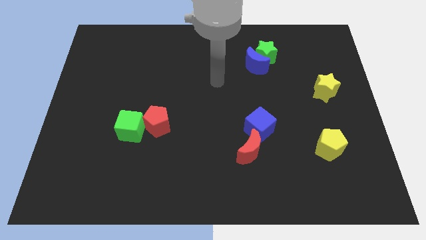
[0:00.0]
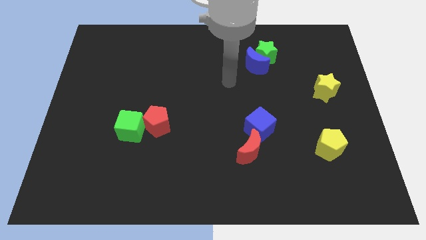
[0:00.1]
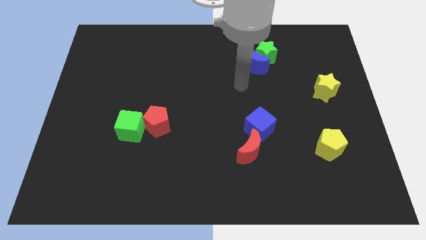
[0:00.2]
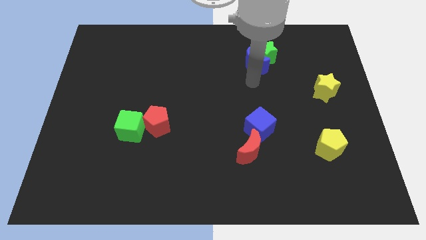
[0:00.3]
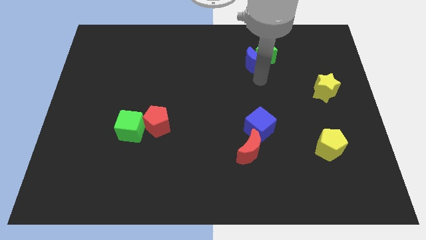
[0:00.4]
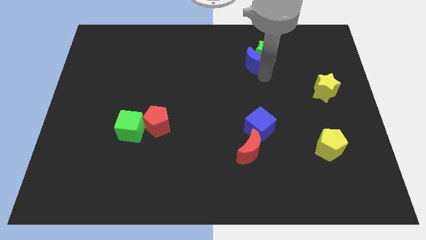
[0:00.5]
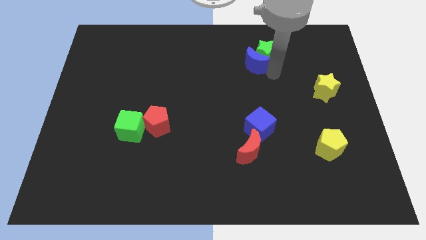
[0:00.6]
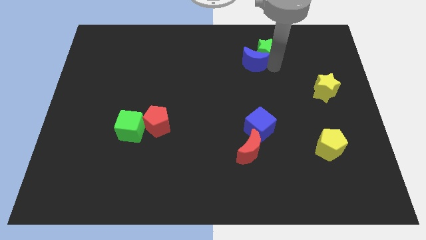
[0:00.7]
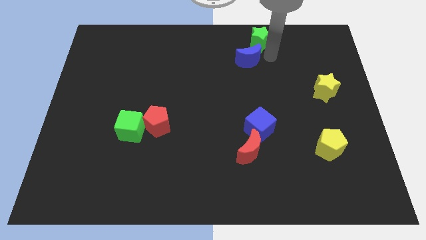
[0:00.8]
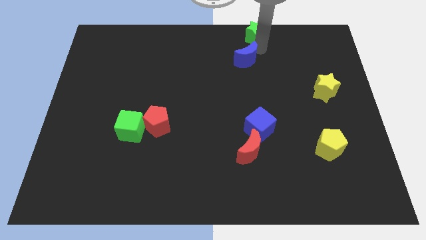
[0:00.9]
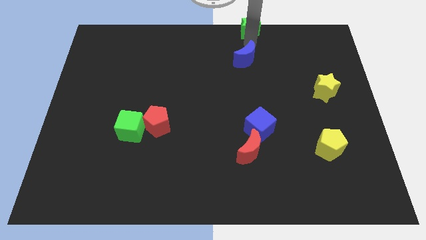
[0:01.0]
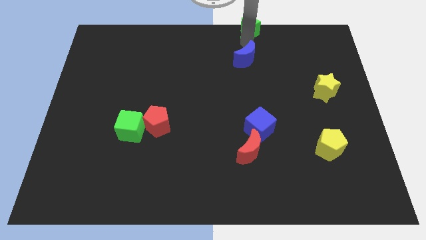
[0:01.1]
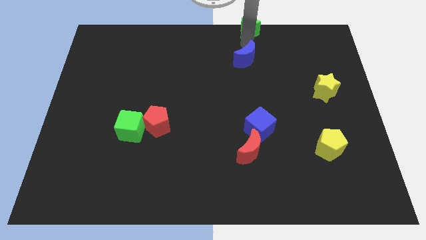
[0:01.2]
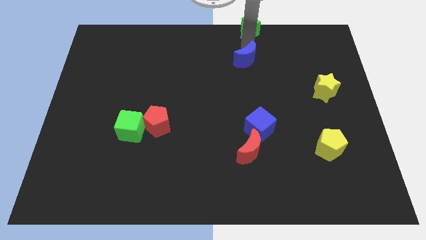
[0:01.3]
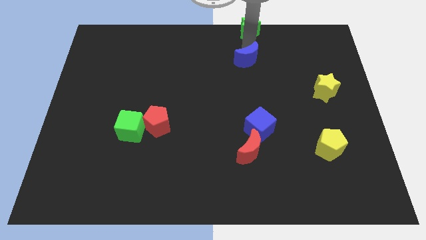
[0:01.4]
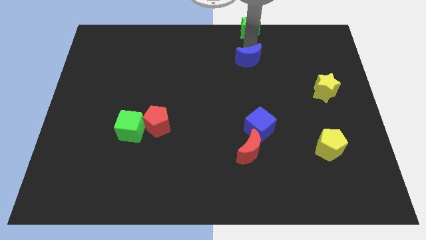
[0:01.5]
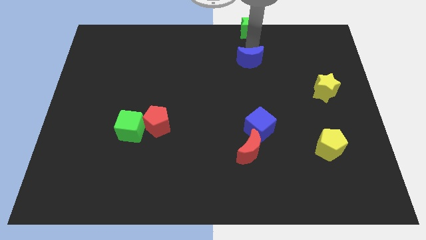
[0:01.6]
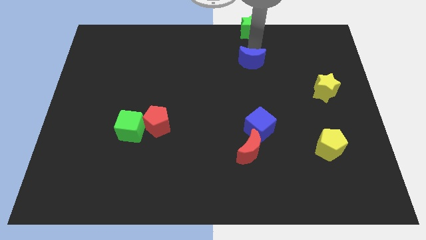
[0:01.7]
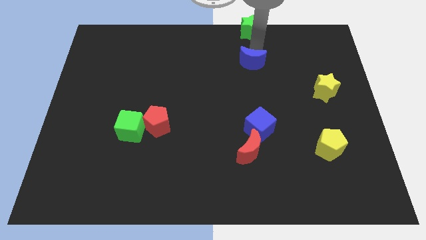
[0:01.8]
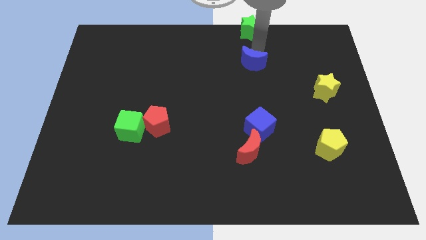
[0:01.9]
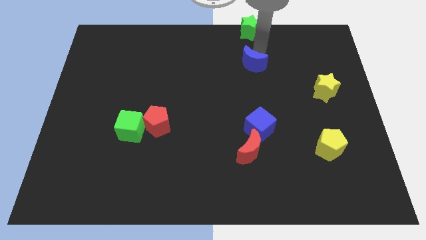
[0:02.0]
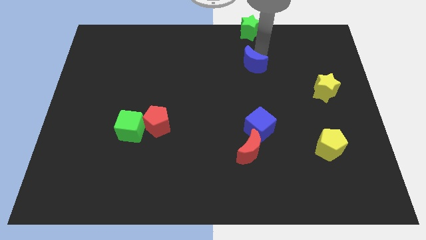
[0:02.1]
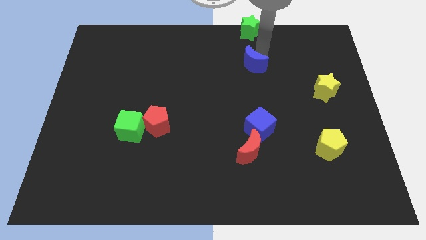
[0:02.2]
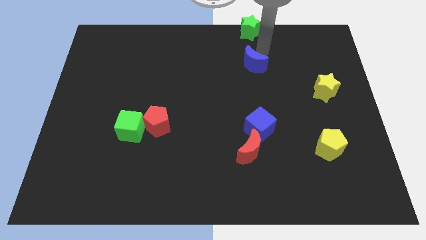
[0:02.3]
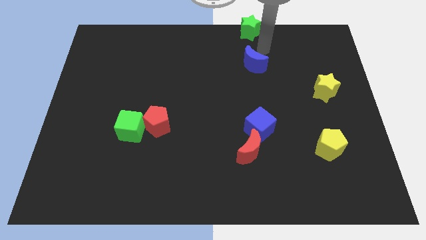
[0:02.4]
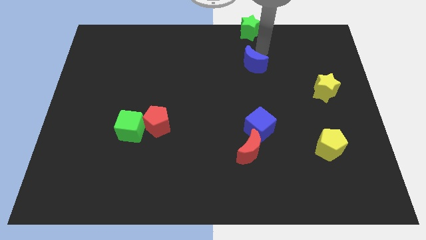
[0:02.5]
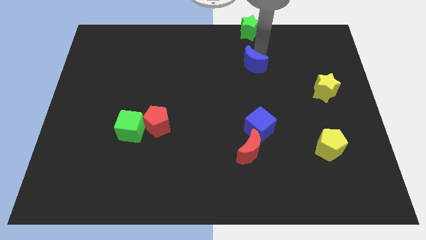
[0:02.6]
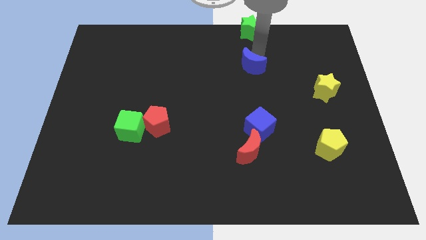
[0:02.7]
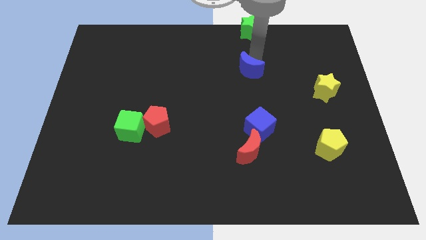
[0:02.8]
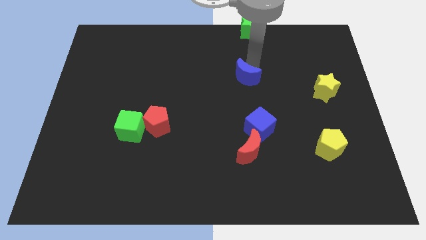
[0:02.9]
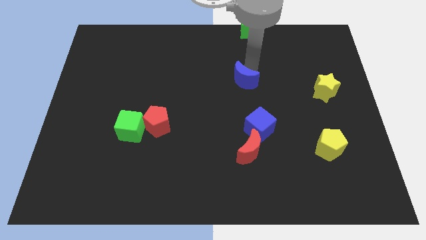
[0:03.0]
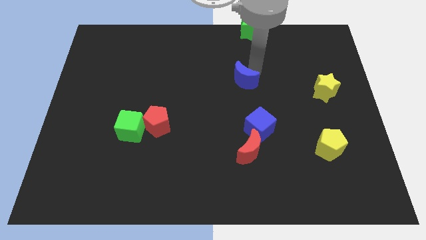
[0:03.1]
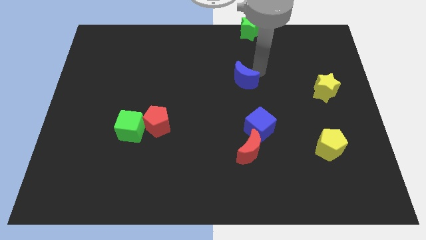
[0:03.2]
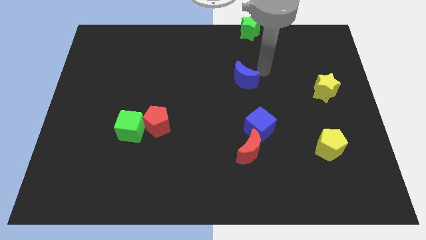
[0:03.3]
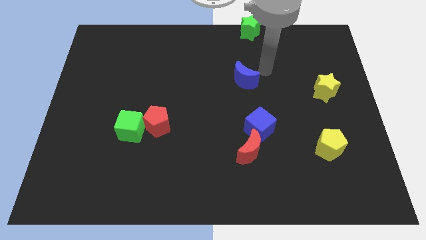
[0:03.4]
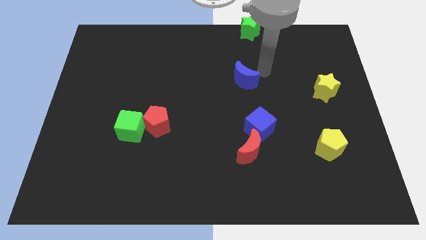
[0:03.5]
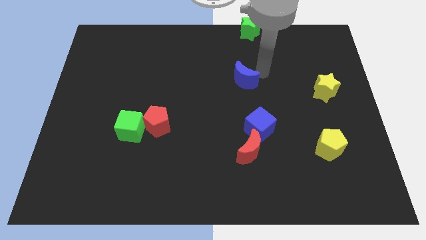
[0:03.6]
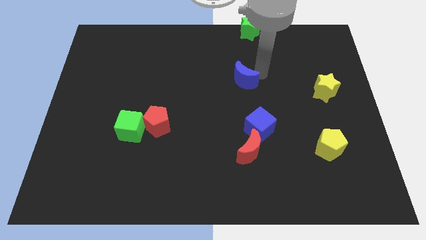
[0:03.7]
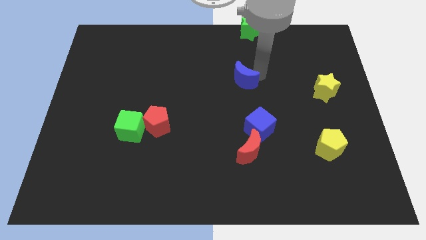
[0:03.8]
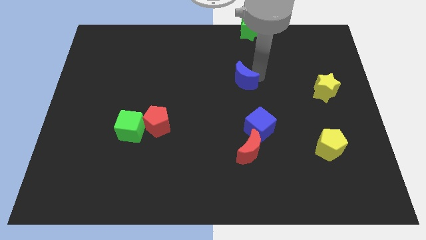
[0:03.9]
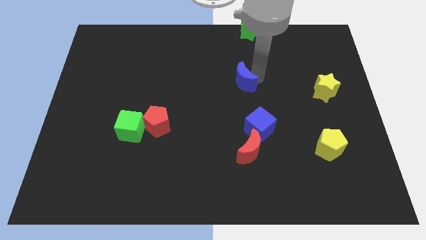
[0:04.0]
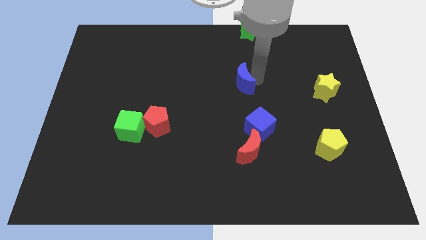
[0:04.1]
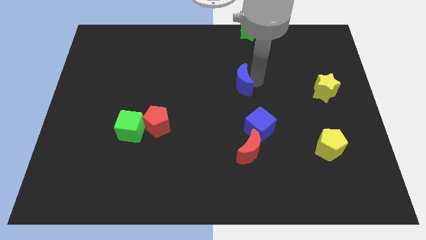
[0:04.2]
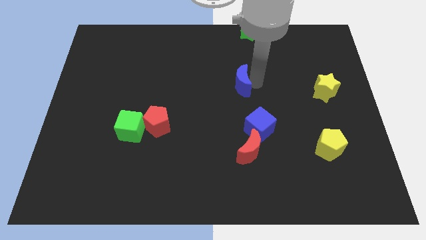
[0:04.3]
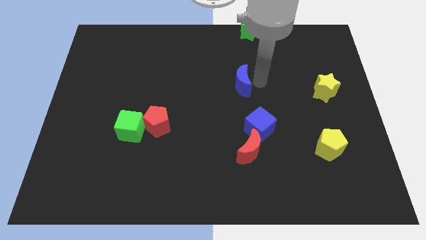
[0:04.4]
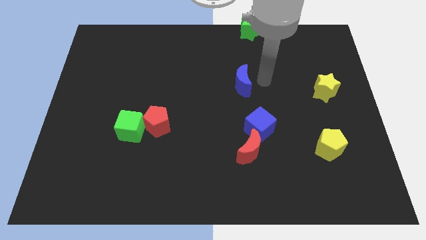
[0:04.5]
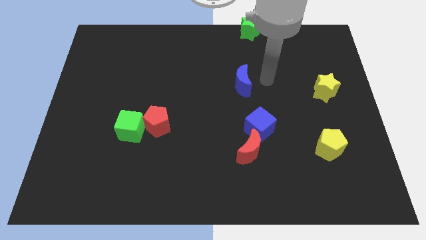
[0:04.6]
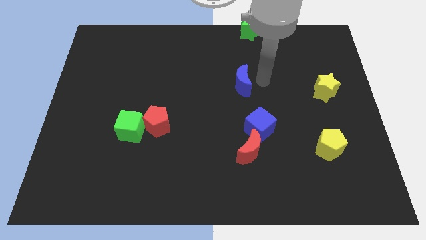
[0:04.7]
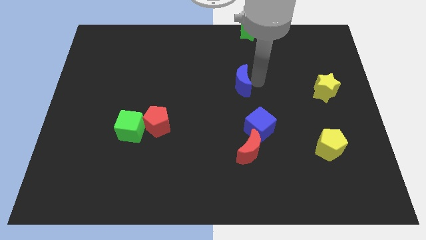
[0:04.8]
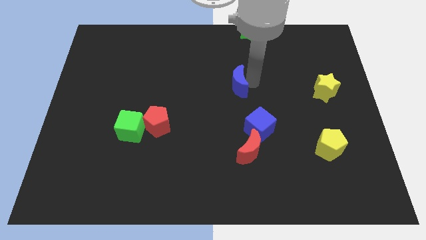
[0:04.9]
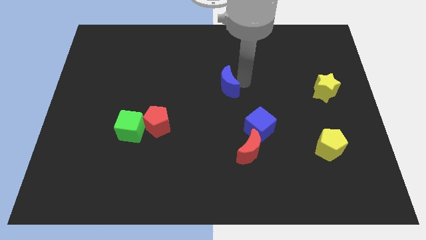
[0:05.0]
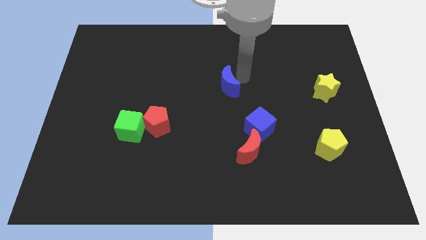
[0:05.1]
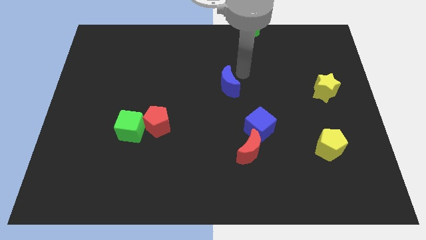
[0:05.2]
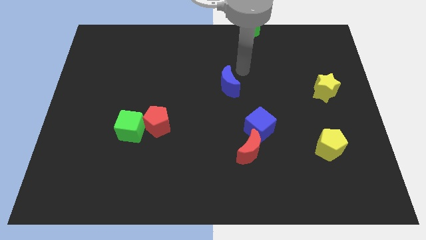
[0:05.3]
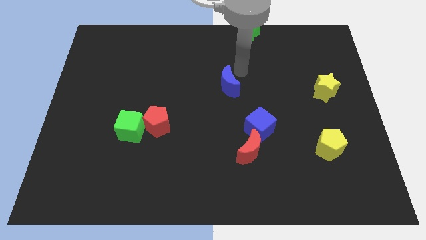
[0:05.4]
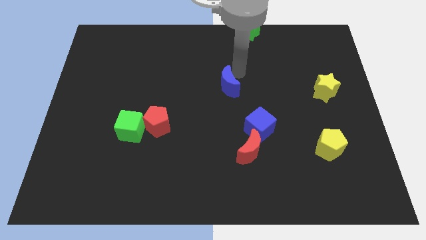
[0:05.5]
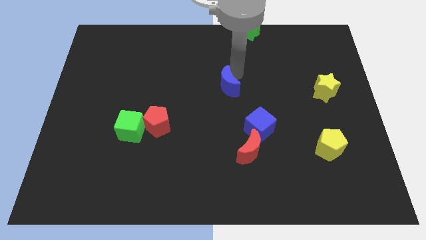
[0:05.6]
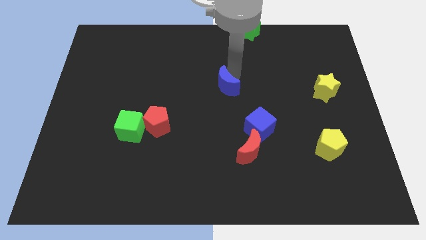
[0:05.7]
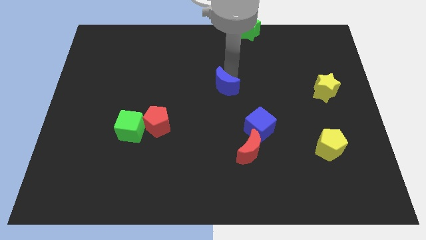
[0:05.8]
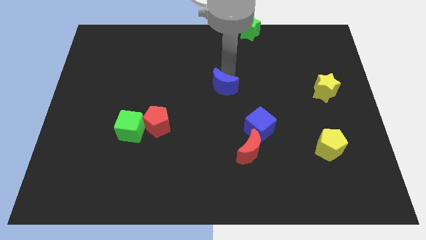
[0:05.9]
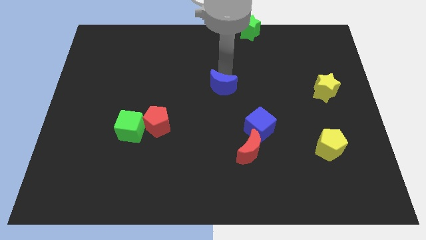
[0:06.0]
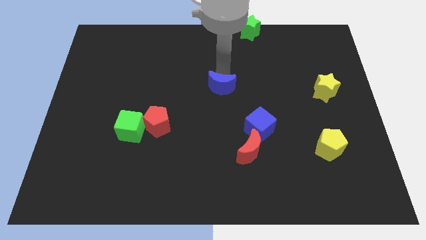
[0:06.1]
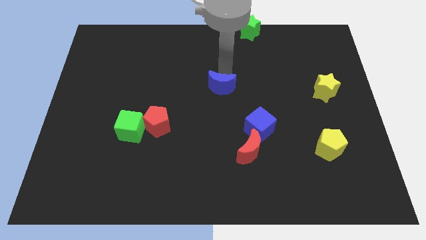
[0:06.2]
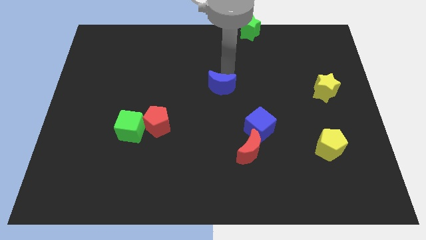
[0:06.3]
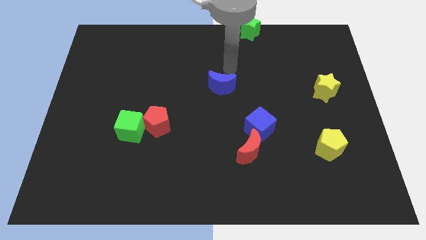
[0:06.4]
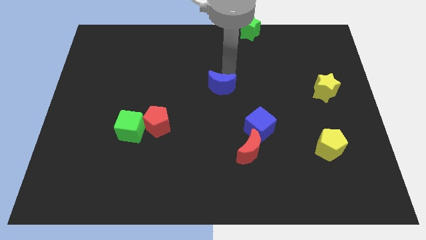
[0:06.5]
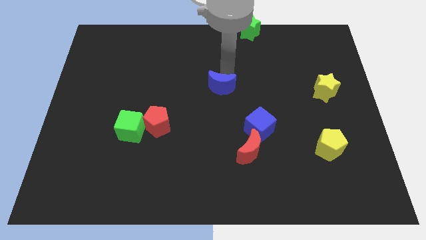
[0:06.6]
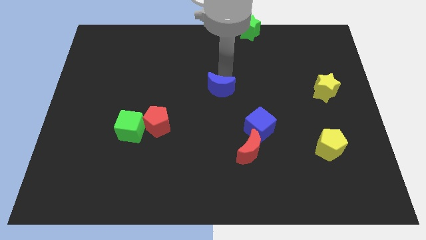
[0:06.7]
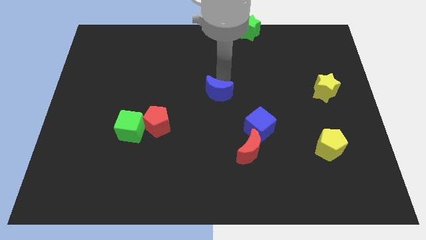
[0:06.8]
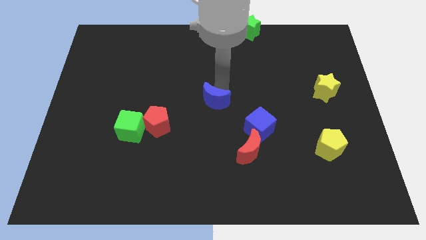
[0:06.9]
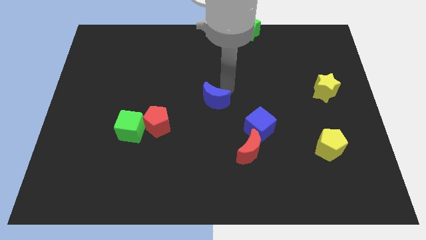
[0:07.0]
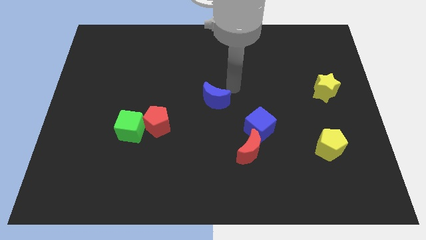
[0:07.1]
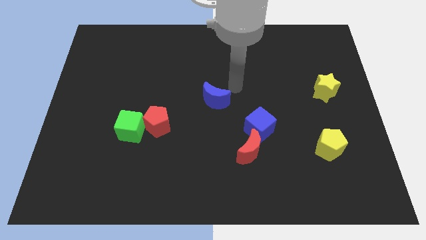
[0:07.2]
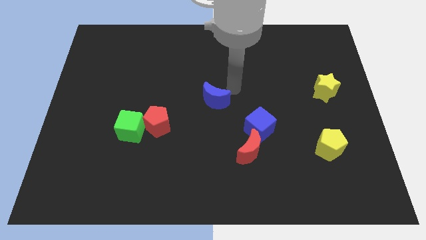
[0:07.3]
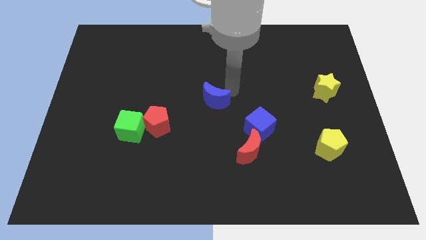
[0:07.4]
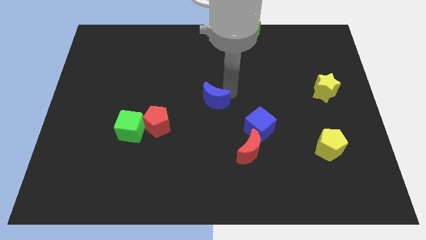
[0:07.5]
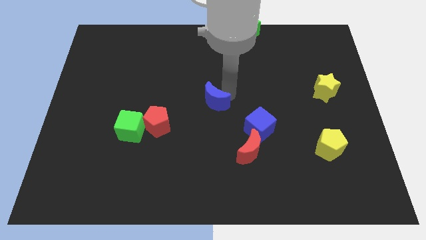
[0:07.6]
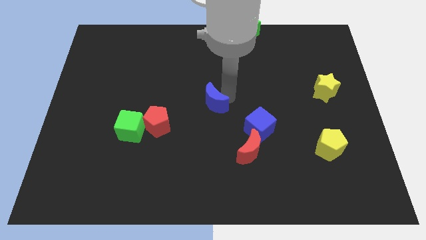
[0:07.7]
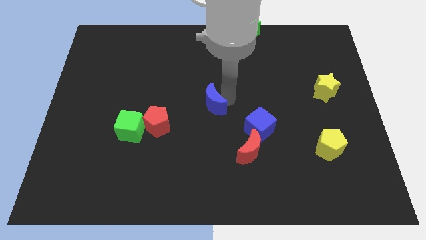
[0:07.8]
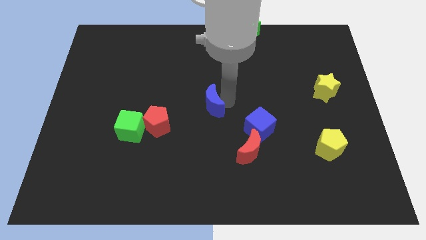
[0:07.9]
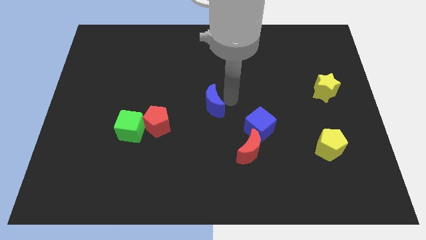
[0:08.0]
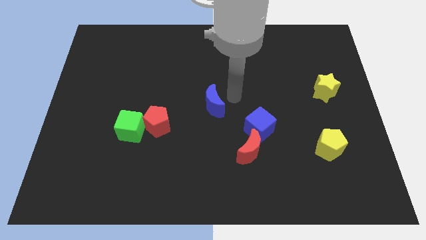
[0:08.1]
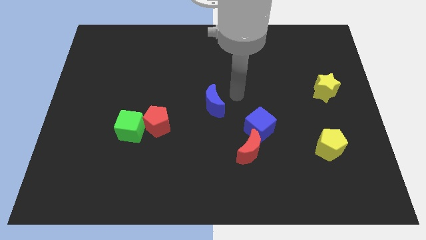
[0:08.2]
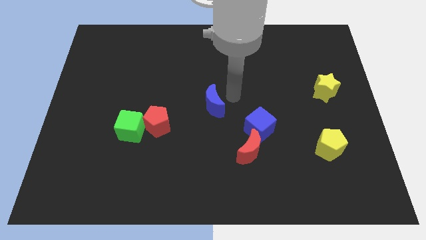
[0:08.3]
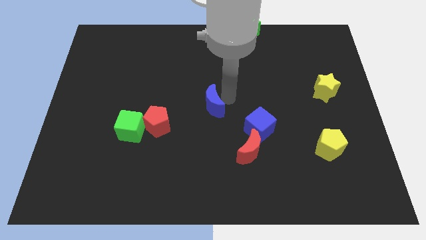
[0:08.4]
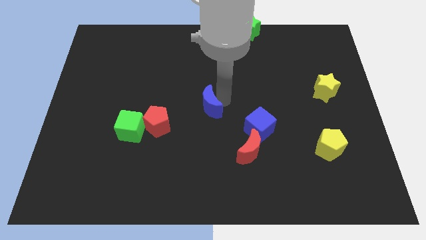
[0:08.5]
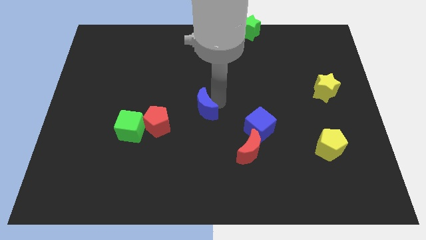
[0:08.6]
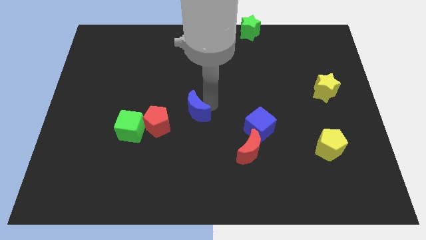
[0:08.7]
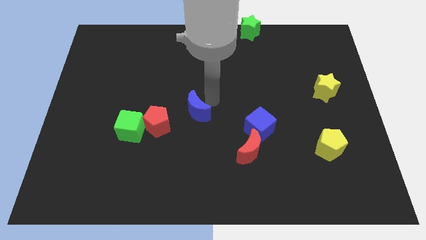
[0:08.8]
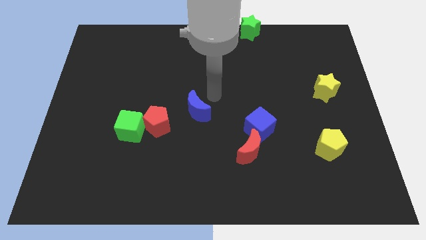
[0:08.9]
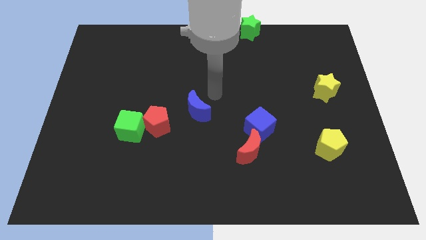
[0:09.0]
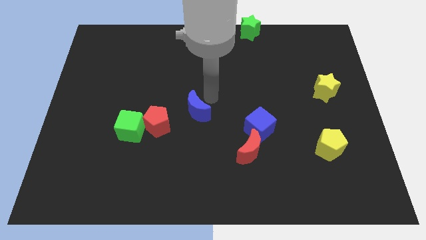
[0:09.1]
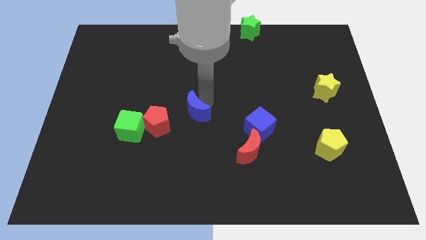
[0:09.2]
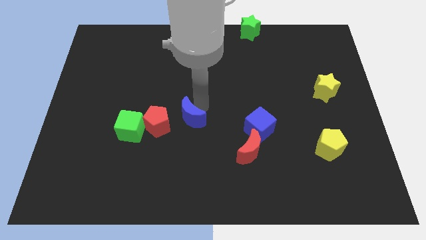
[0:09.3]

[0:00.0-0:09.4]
put the blue moon just right of the green cube
